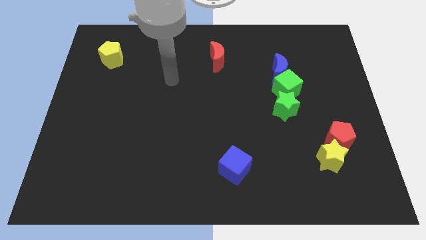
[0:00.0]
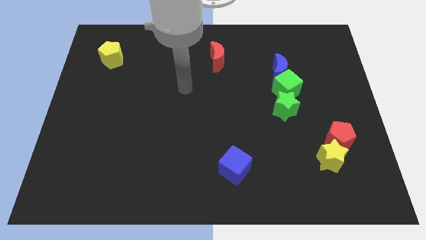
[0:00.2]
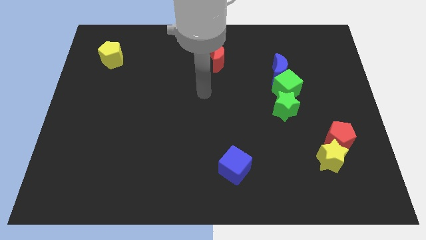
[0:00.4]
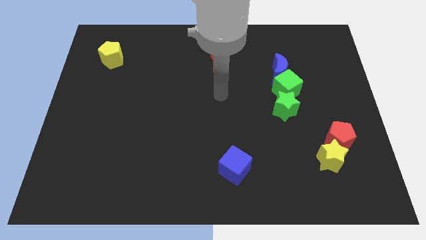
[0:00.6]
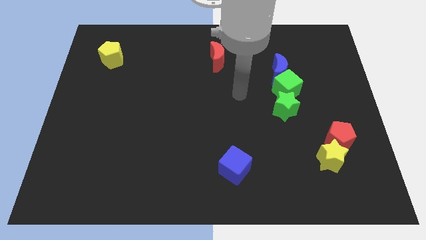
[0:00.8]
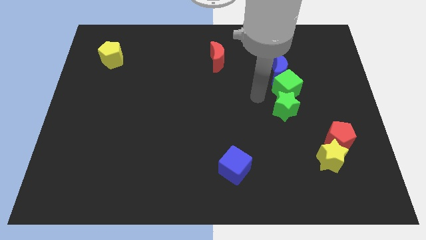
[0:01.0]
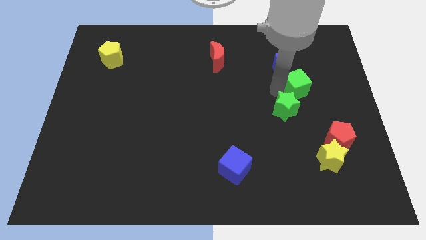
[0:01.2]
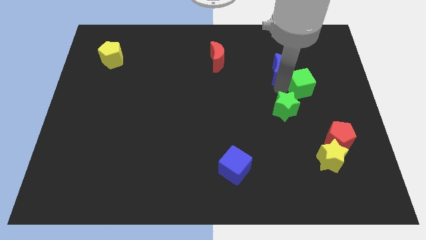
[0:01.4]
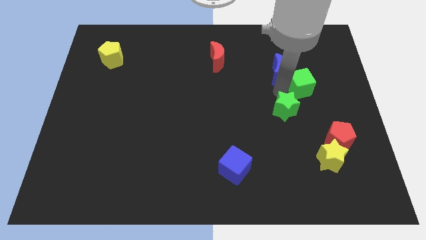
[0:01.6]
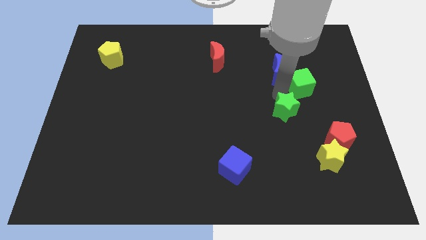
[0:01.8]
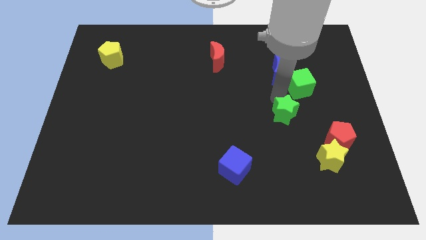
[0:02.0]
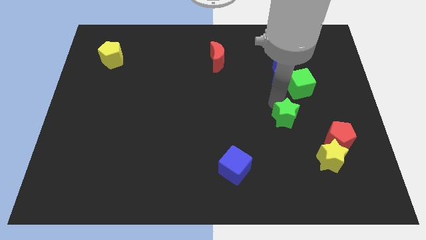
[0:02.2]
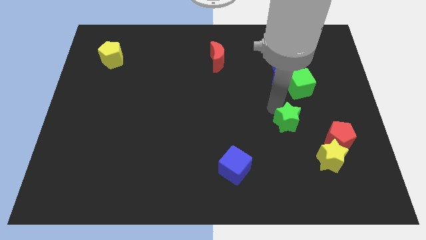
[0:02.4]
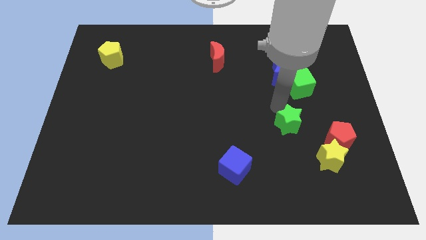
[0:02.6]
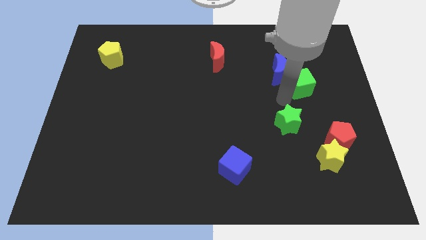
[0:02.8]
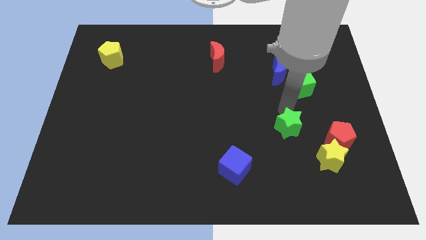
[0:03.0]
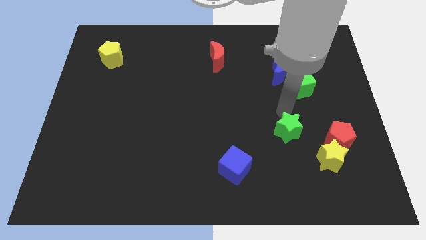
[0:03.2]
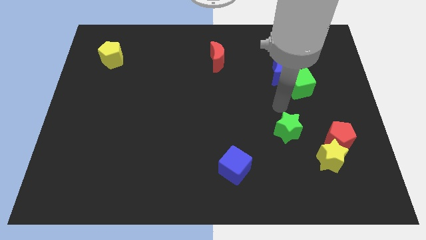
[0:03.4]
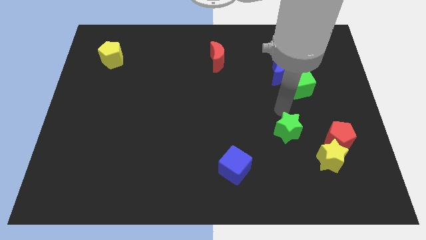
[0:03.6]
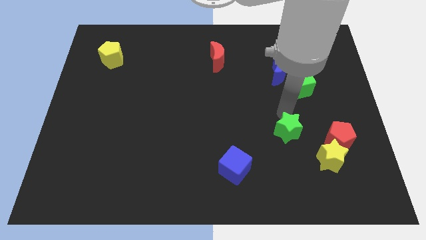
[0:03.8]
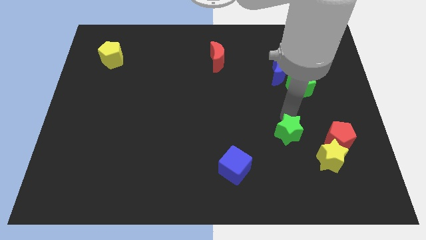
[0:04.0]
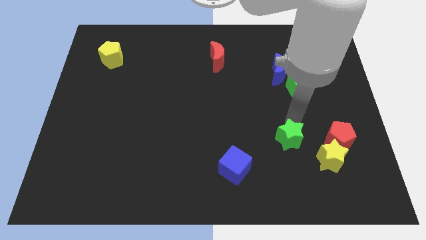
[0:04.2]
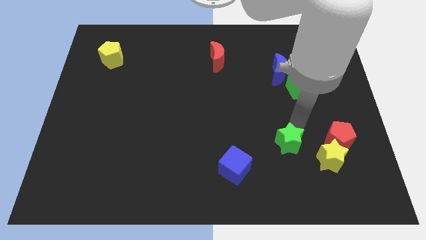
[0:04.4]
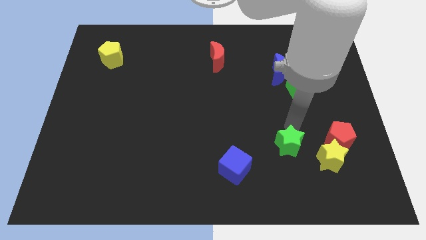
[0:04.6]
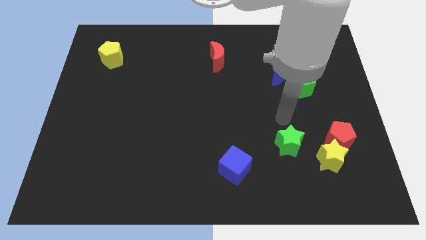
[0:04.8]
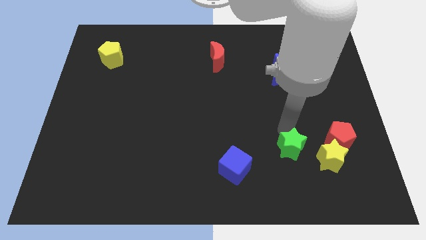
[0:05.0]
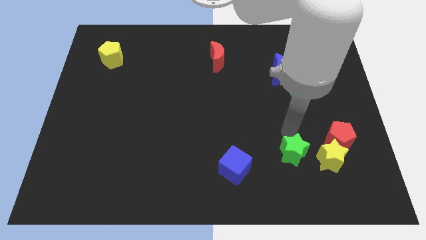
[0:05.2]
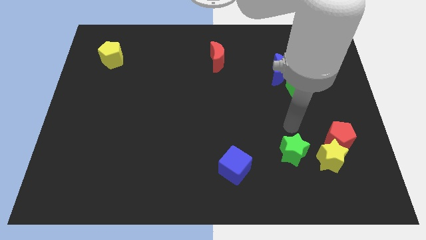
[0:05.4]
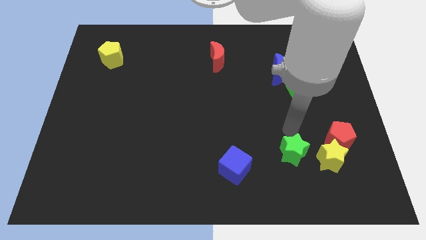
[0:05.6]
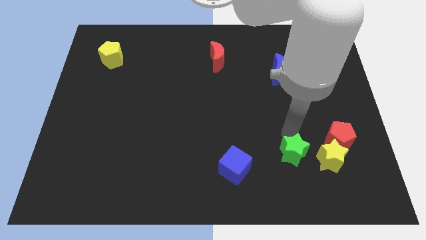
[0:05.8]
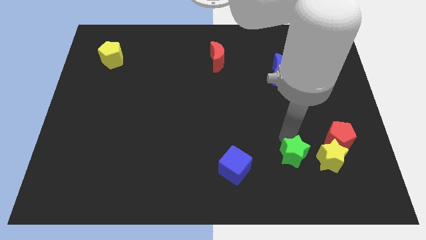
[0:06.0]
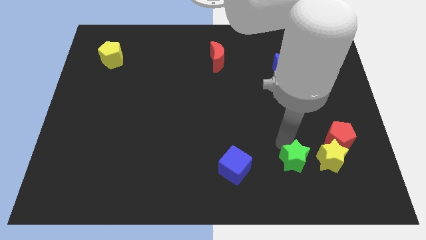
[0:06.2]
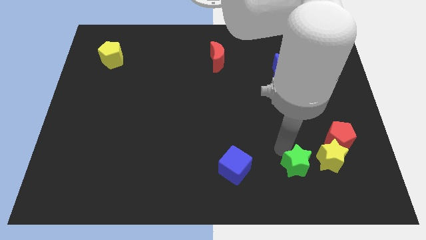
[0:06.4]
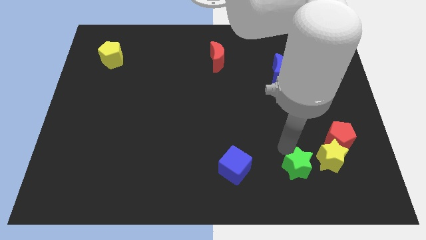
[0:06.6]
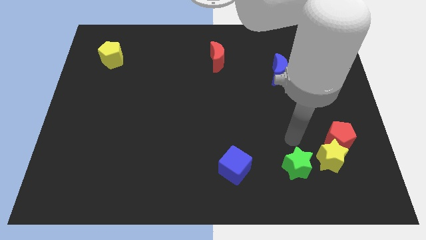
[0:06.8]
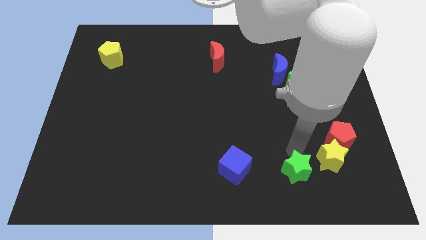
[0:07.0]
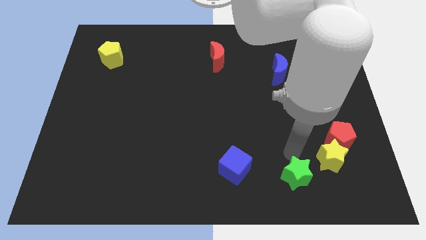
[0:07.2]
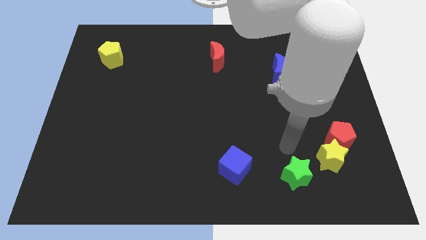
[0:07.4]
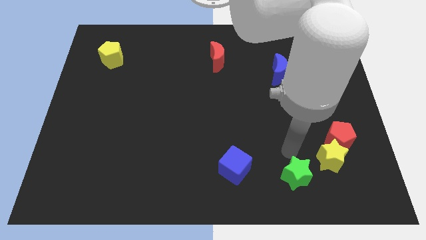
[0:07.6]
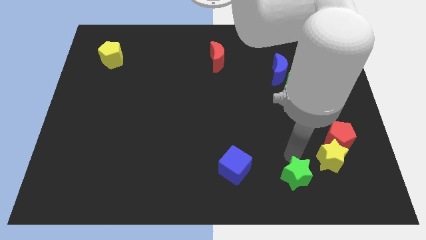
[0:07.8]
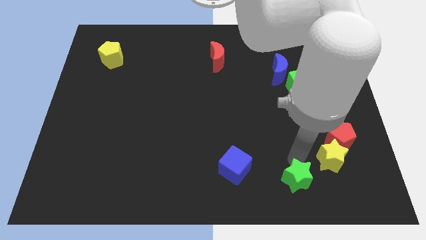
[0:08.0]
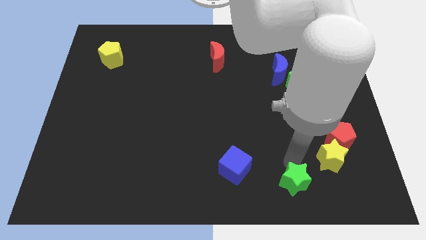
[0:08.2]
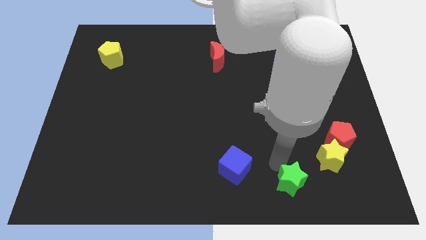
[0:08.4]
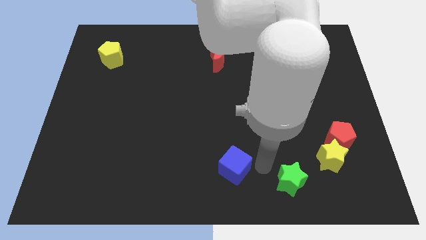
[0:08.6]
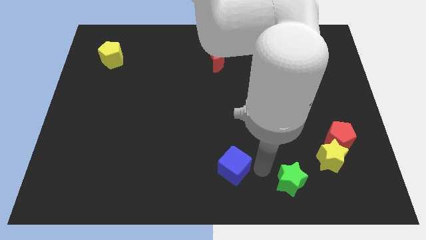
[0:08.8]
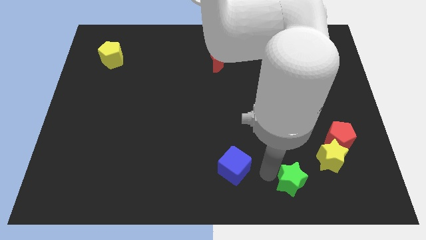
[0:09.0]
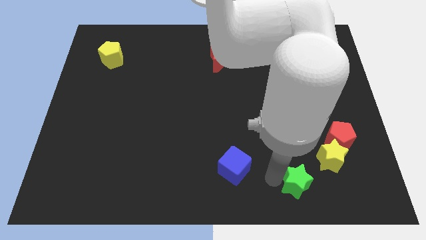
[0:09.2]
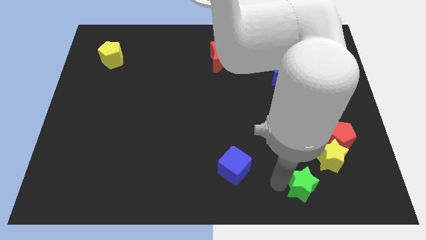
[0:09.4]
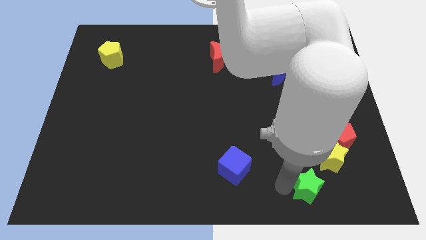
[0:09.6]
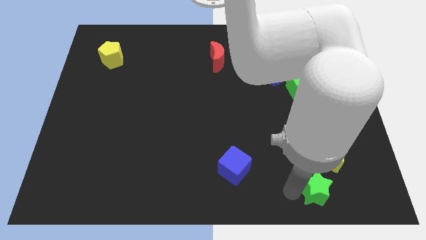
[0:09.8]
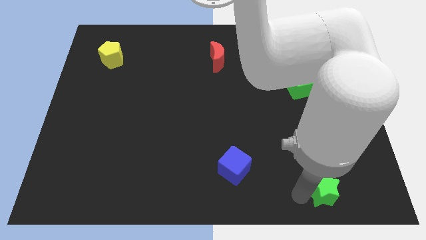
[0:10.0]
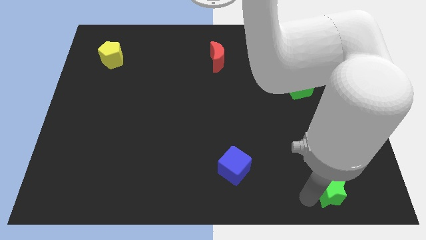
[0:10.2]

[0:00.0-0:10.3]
slide the green star below the red pentagon

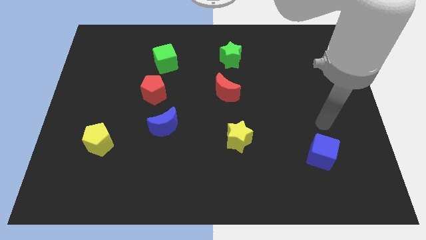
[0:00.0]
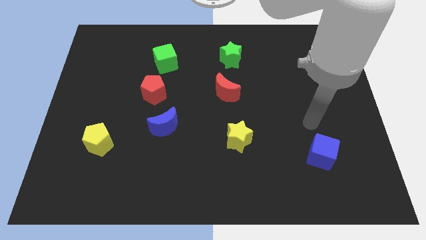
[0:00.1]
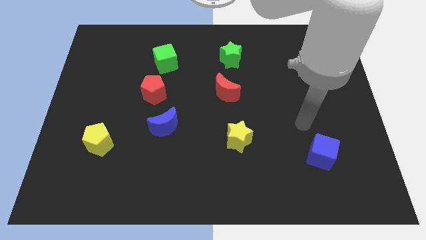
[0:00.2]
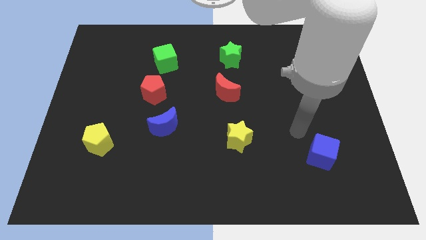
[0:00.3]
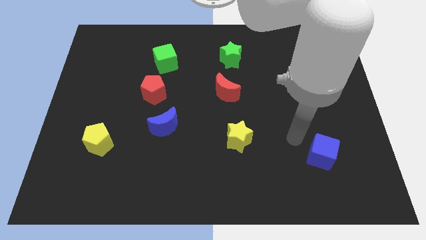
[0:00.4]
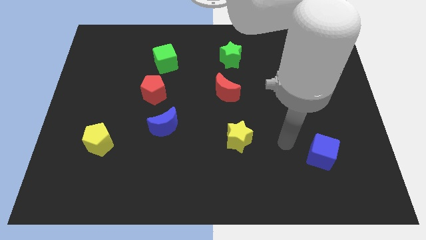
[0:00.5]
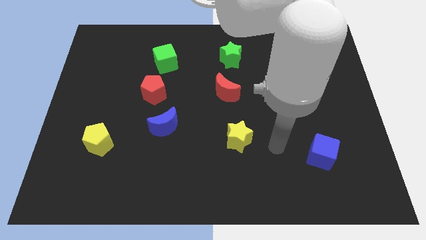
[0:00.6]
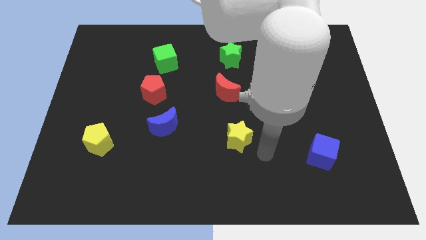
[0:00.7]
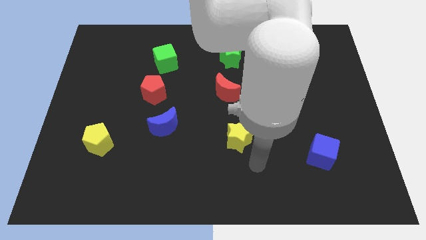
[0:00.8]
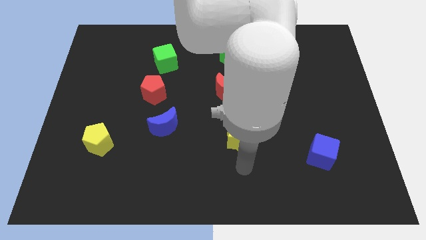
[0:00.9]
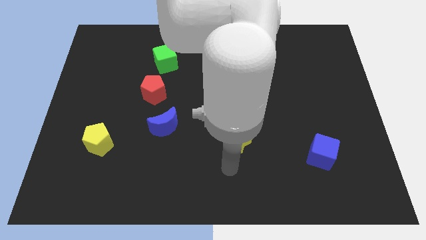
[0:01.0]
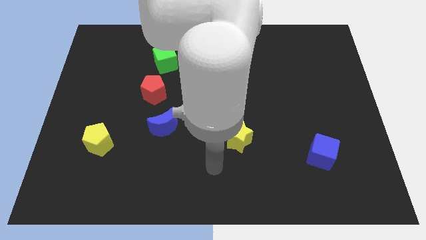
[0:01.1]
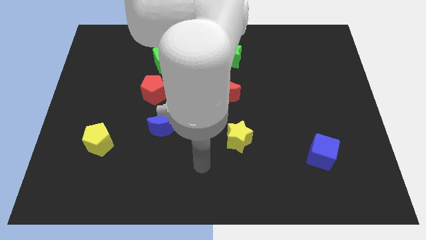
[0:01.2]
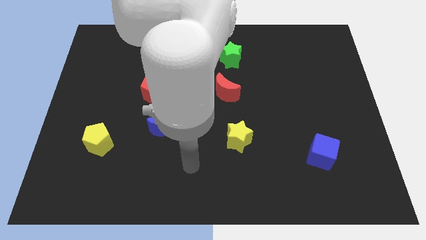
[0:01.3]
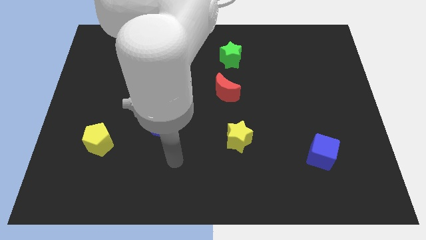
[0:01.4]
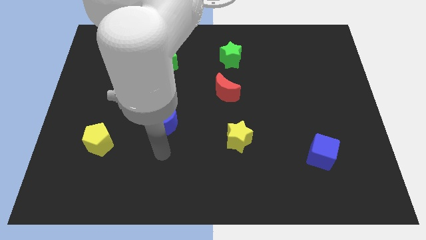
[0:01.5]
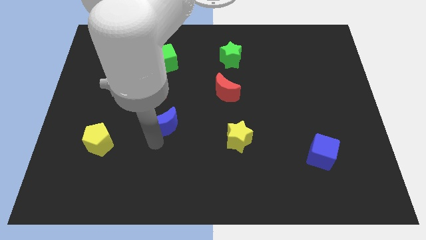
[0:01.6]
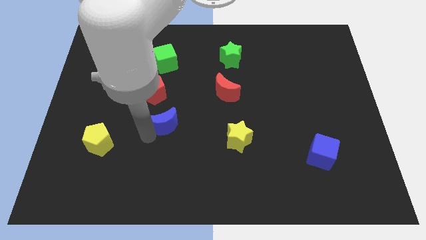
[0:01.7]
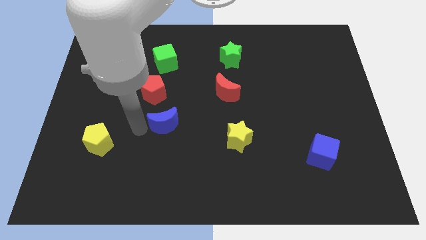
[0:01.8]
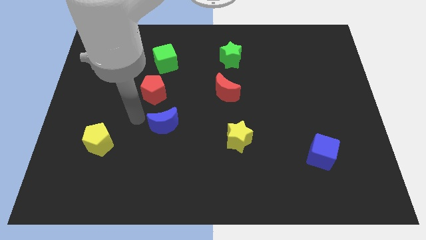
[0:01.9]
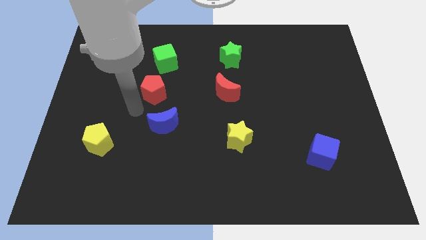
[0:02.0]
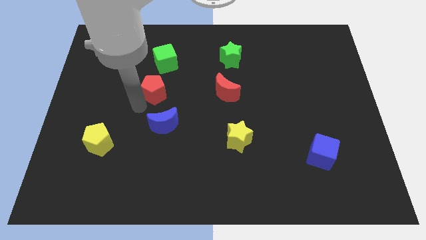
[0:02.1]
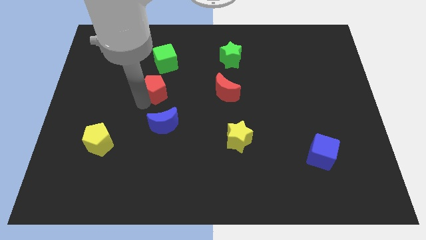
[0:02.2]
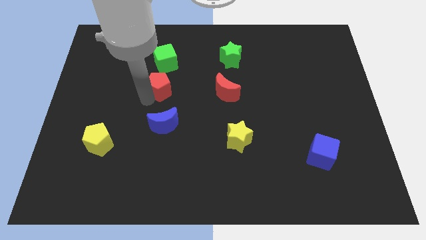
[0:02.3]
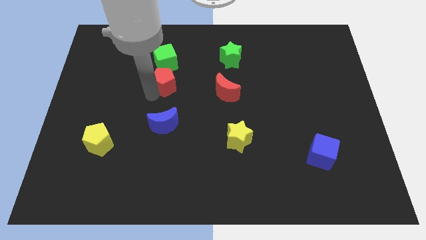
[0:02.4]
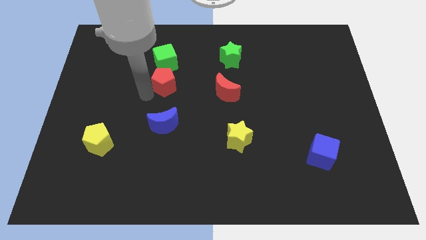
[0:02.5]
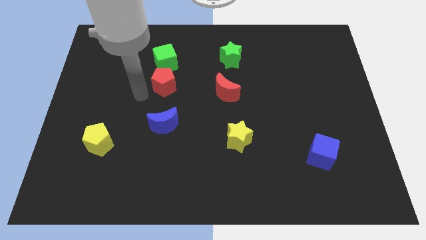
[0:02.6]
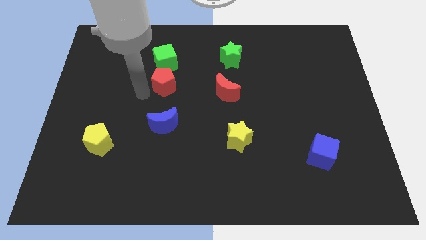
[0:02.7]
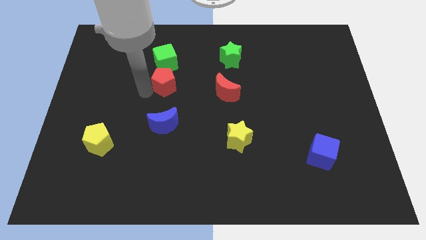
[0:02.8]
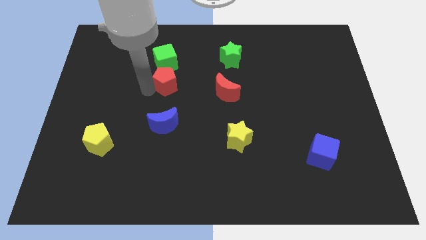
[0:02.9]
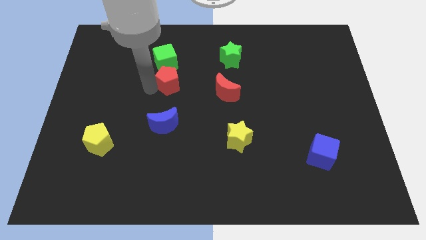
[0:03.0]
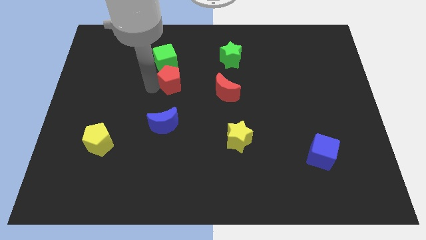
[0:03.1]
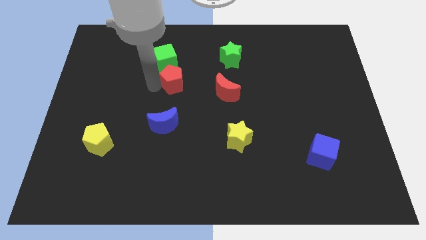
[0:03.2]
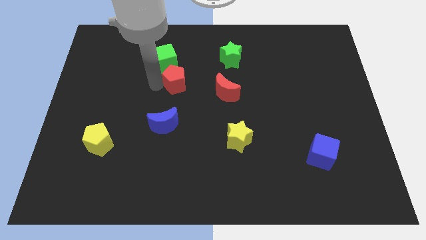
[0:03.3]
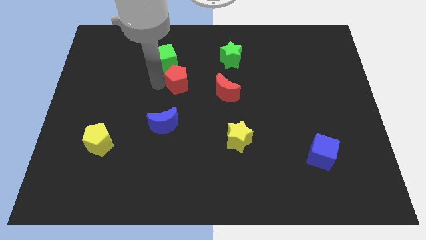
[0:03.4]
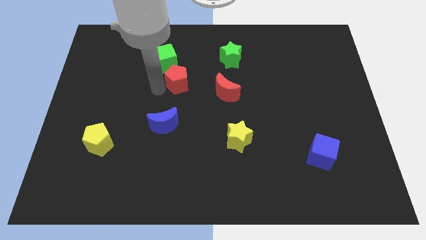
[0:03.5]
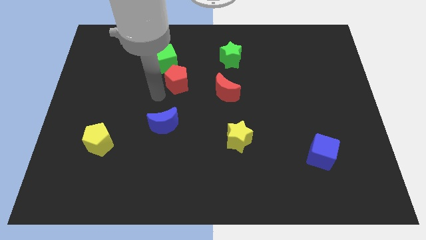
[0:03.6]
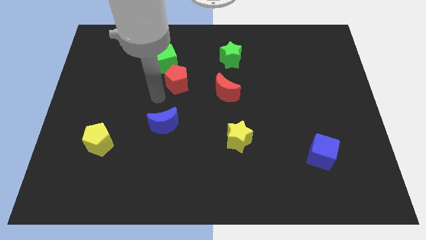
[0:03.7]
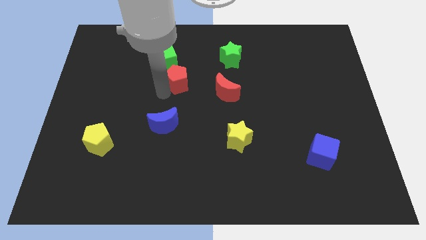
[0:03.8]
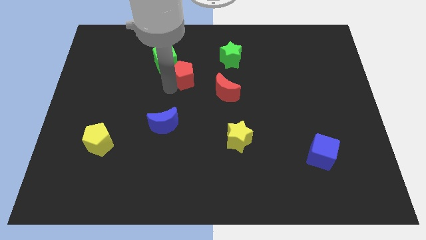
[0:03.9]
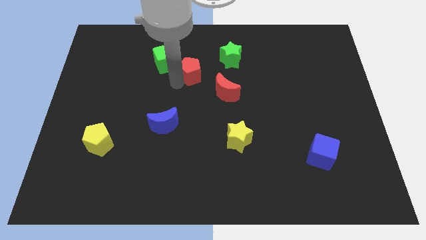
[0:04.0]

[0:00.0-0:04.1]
move the red pentagon to the right of the green cube
